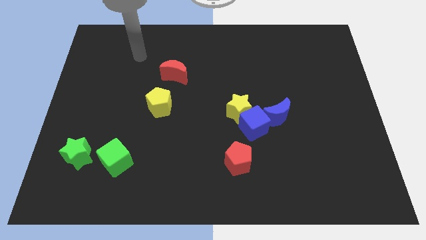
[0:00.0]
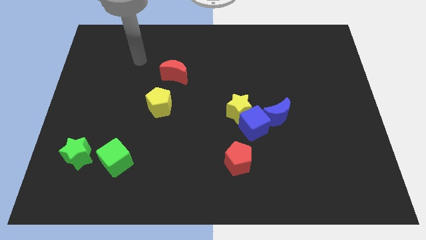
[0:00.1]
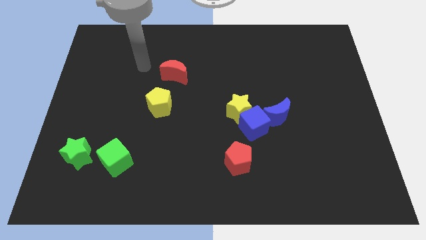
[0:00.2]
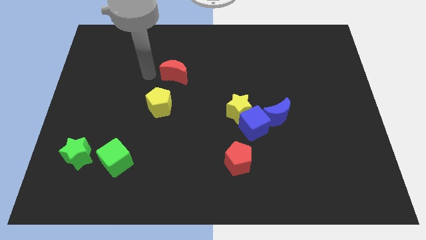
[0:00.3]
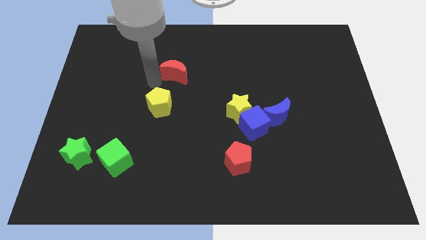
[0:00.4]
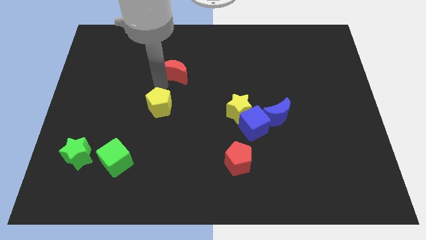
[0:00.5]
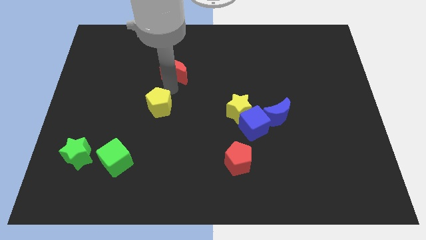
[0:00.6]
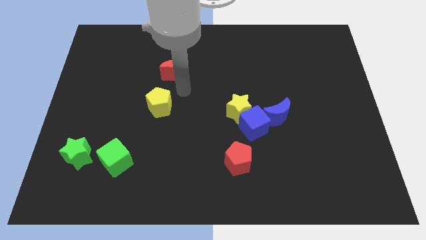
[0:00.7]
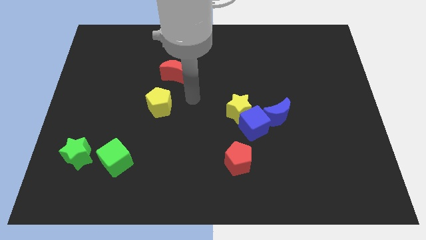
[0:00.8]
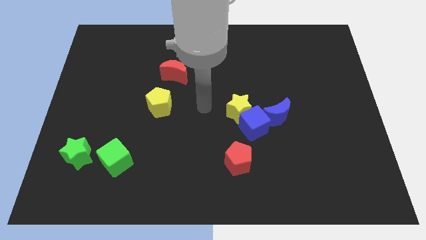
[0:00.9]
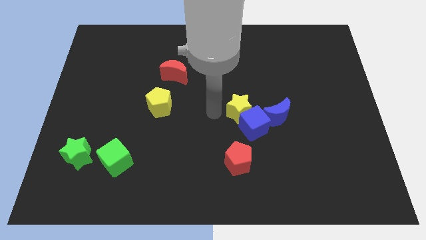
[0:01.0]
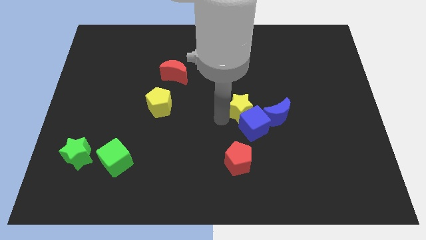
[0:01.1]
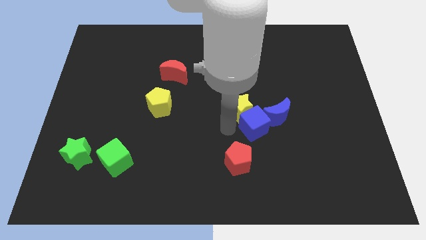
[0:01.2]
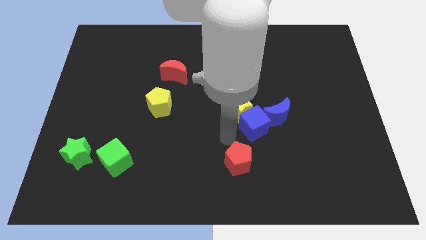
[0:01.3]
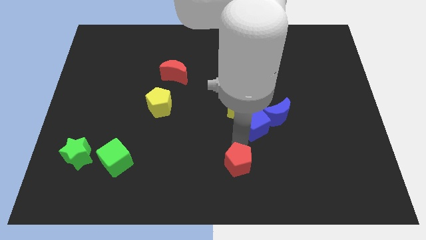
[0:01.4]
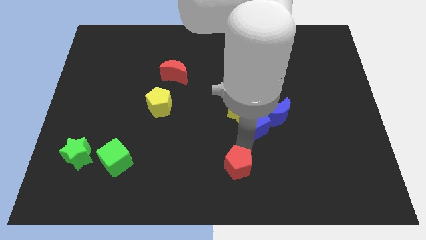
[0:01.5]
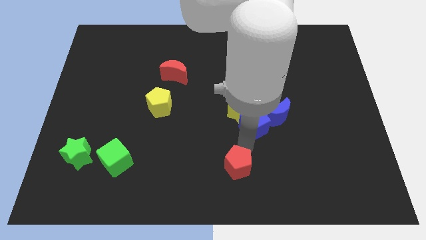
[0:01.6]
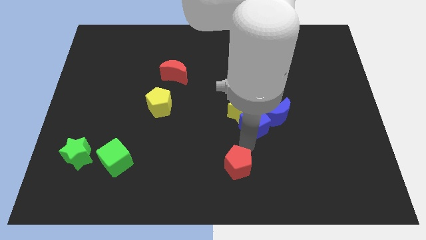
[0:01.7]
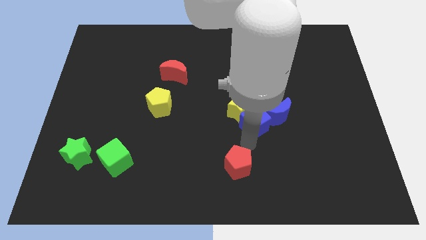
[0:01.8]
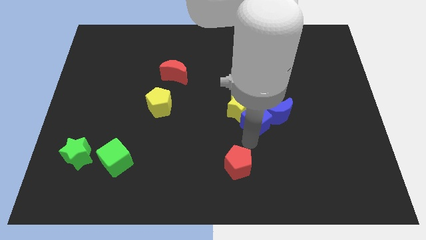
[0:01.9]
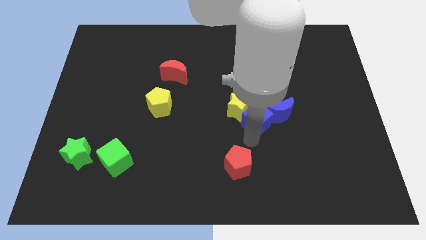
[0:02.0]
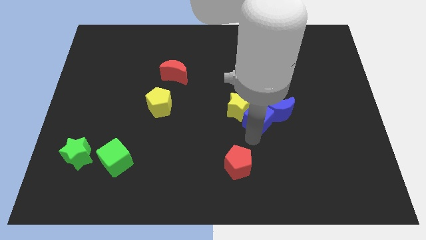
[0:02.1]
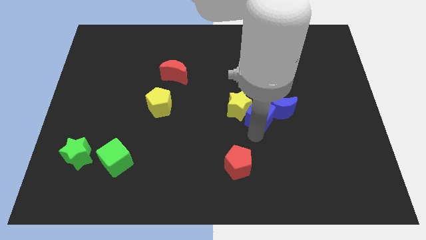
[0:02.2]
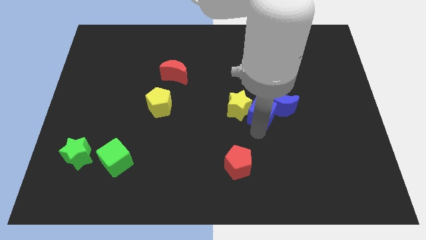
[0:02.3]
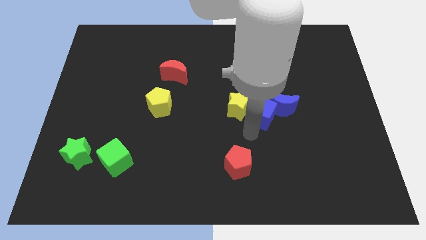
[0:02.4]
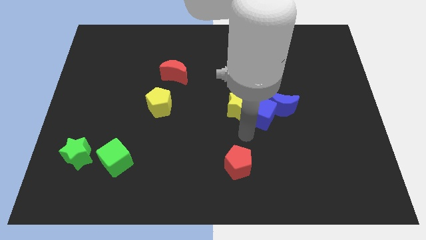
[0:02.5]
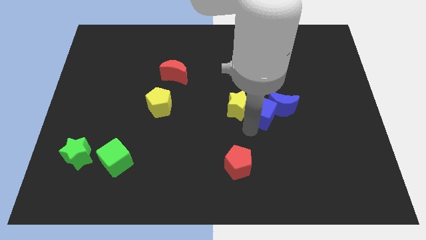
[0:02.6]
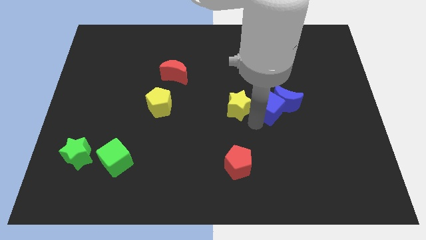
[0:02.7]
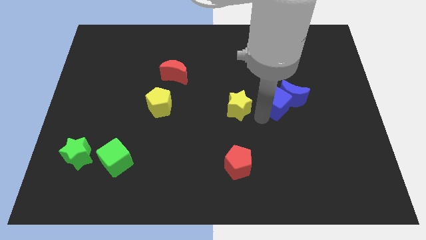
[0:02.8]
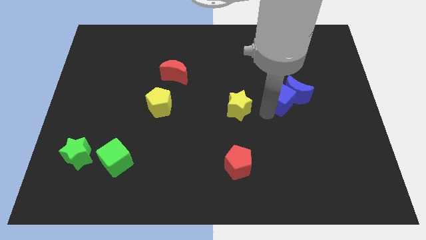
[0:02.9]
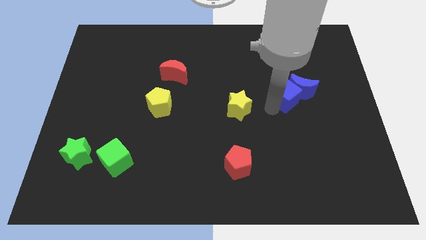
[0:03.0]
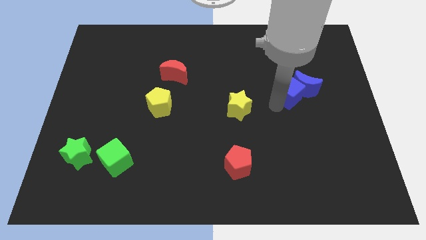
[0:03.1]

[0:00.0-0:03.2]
separate the blue cube from the yellow star, blue moon, and red pentagon

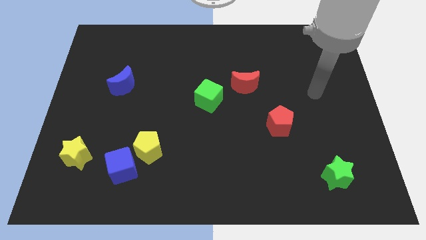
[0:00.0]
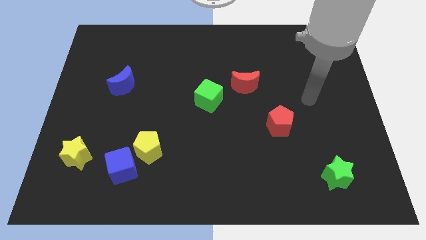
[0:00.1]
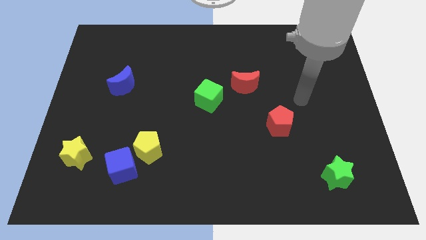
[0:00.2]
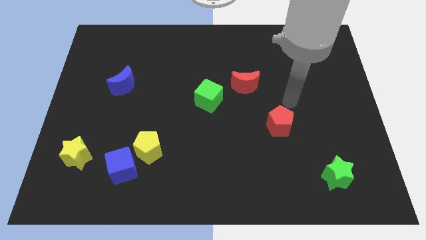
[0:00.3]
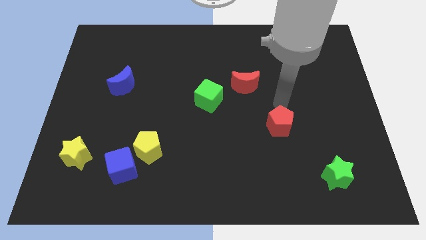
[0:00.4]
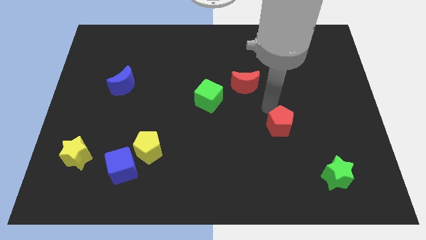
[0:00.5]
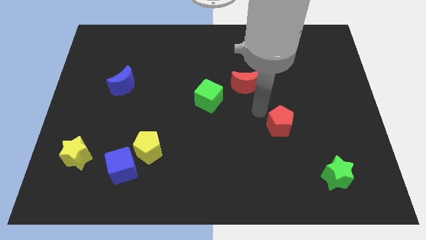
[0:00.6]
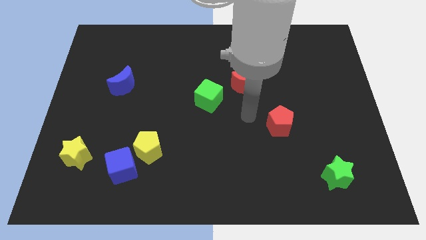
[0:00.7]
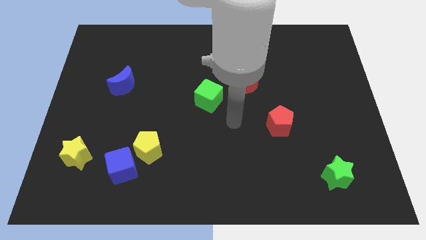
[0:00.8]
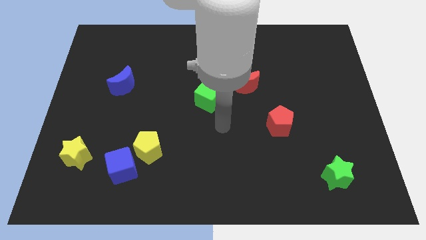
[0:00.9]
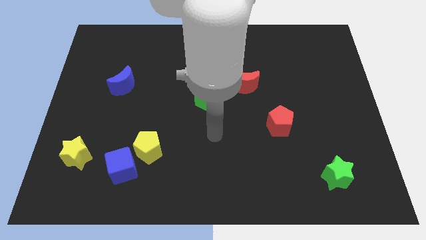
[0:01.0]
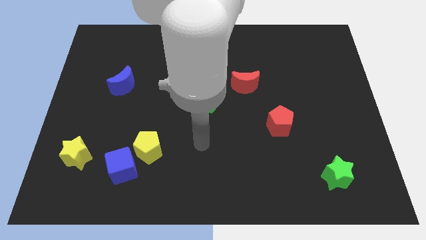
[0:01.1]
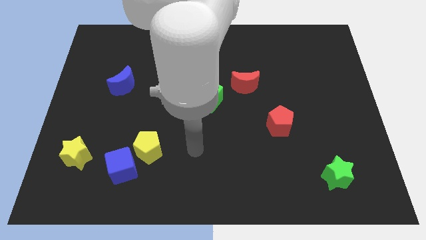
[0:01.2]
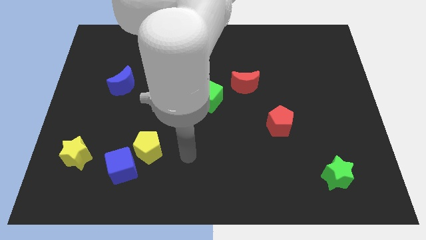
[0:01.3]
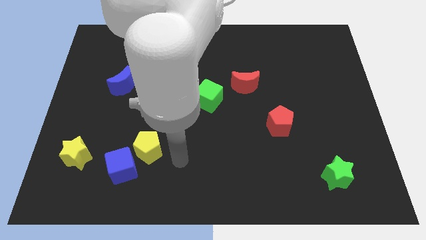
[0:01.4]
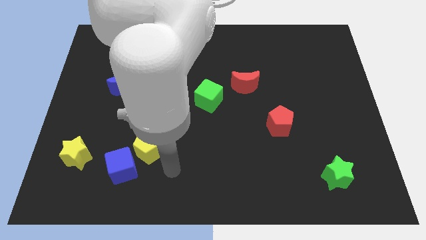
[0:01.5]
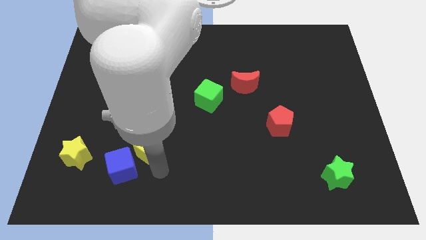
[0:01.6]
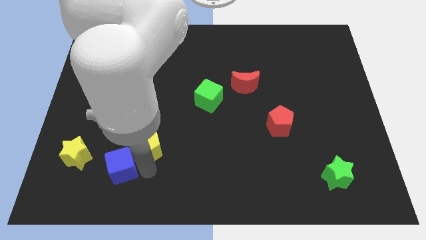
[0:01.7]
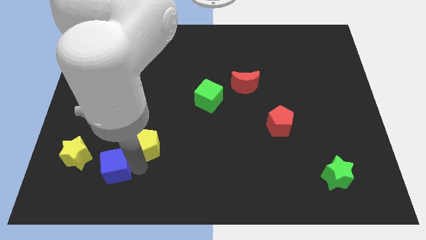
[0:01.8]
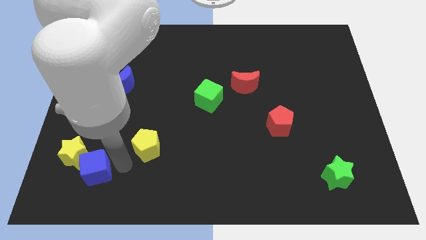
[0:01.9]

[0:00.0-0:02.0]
separate the yellow pentagon from the blue cube

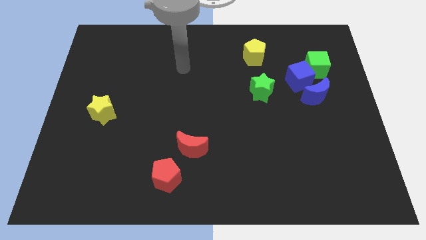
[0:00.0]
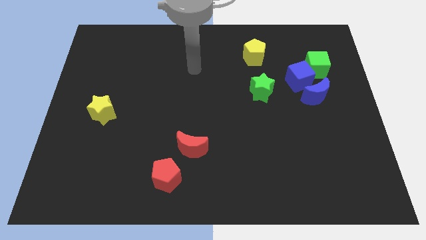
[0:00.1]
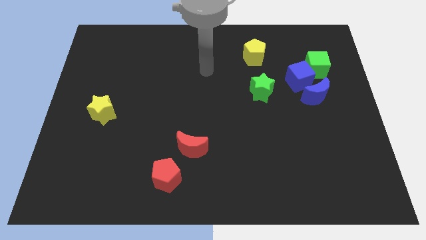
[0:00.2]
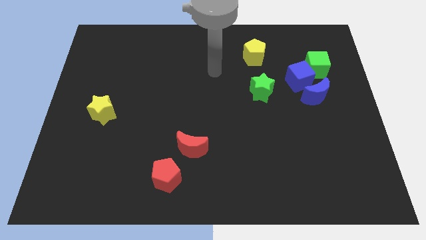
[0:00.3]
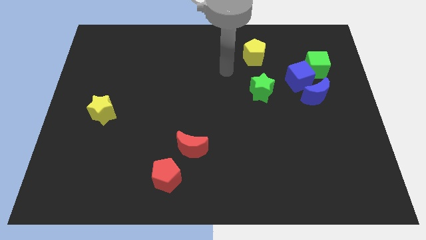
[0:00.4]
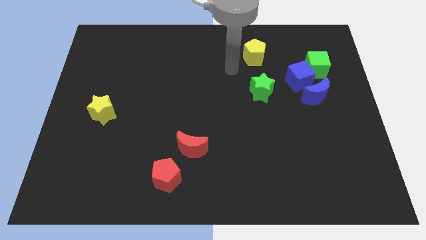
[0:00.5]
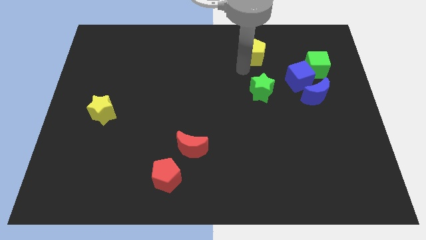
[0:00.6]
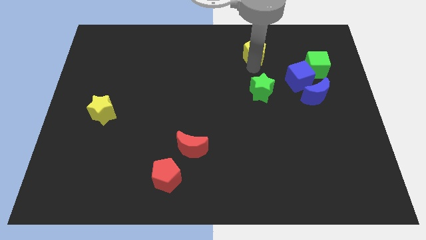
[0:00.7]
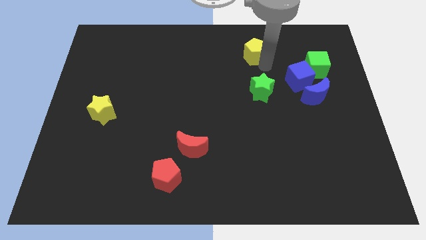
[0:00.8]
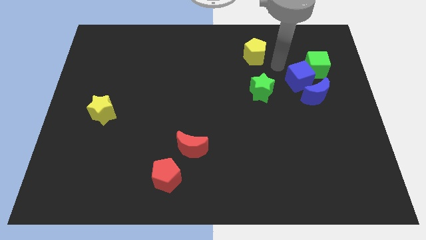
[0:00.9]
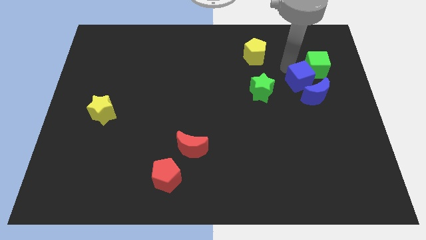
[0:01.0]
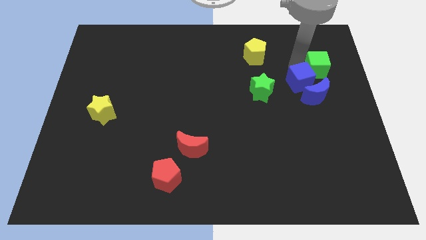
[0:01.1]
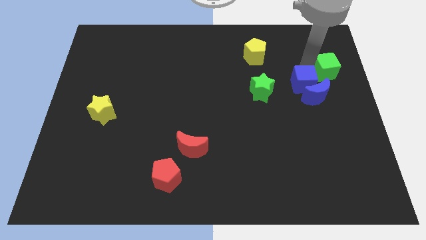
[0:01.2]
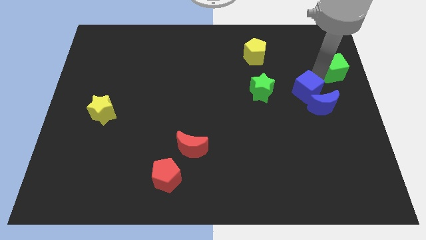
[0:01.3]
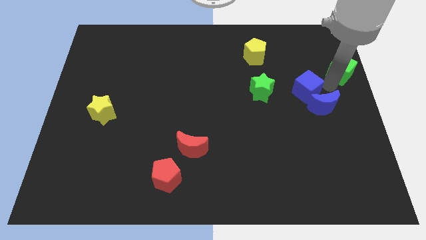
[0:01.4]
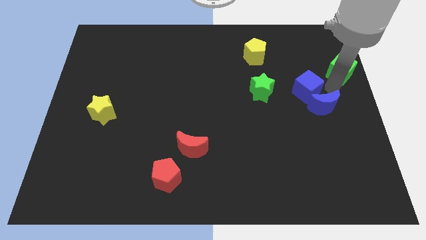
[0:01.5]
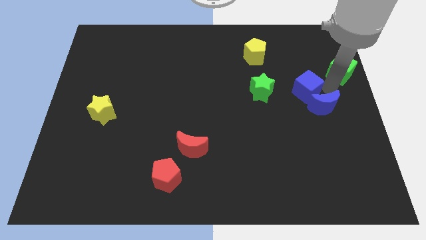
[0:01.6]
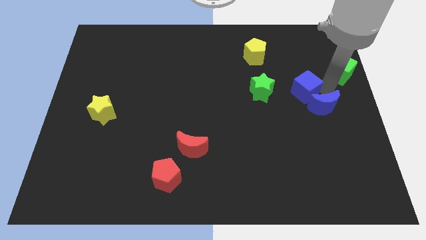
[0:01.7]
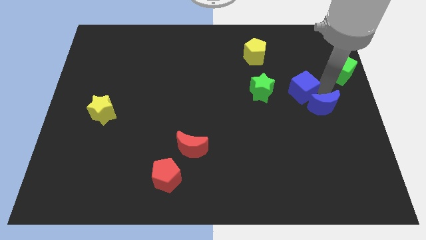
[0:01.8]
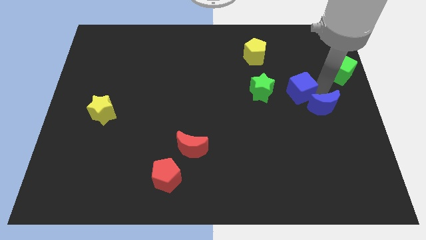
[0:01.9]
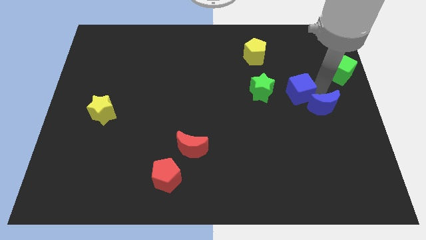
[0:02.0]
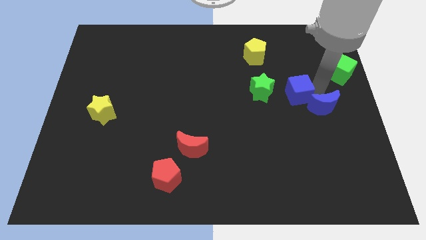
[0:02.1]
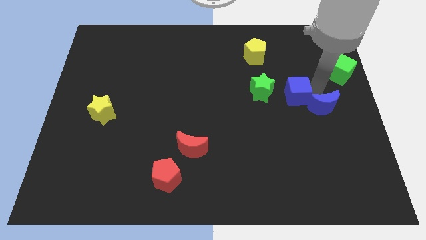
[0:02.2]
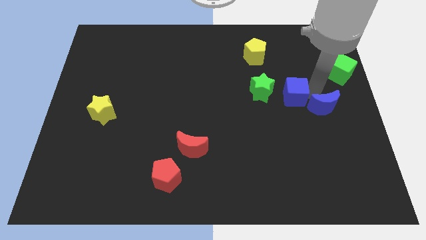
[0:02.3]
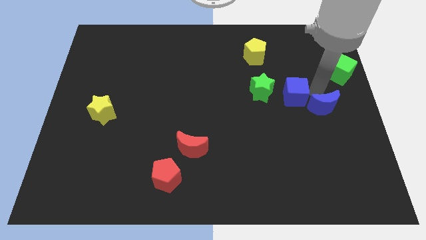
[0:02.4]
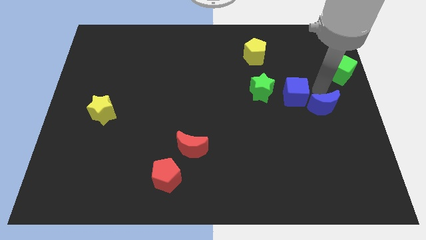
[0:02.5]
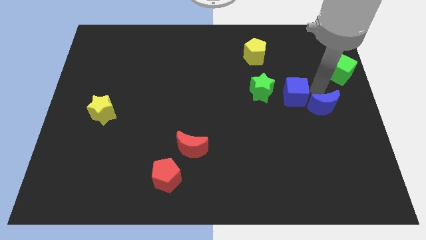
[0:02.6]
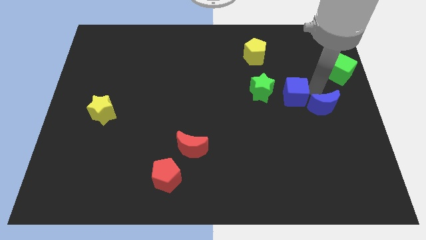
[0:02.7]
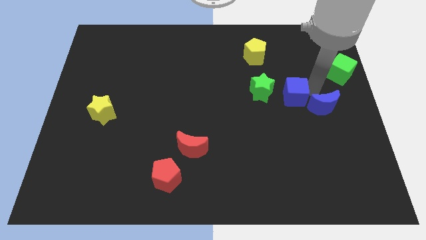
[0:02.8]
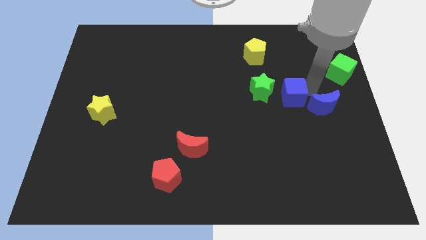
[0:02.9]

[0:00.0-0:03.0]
move the blue cube away from the green cube and blue moon

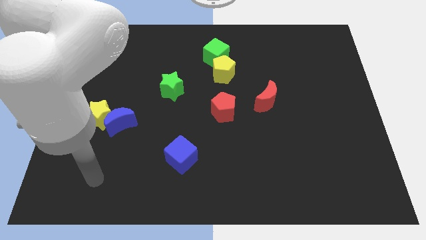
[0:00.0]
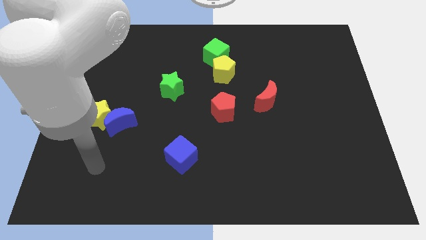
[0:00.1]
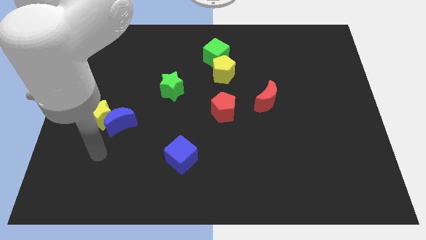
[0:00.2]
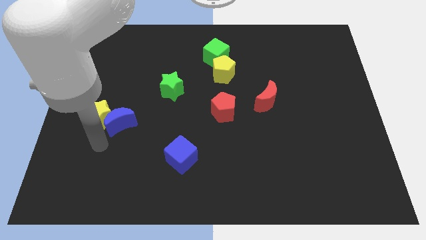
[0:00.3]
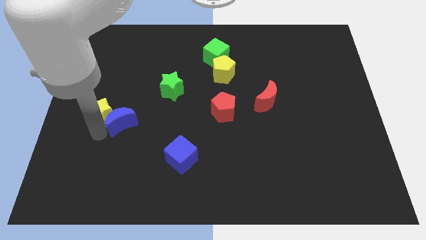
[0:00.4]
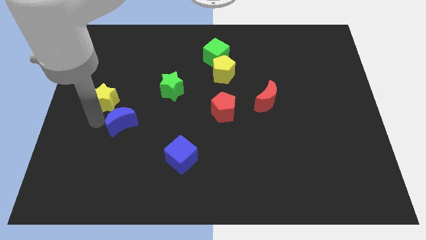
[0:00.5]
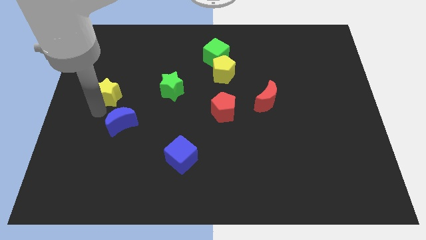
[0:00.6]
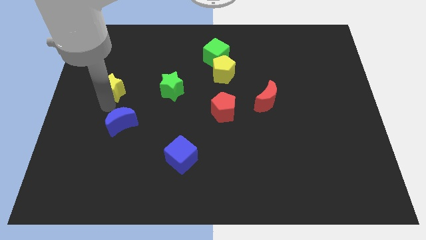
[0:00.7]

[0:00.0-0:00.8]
move the blue moon away from the yellow star

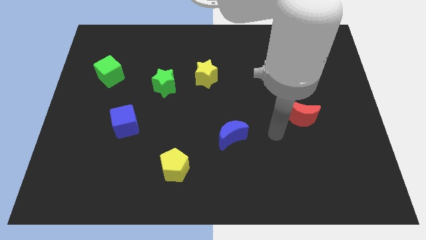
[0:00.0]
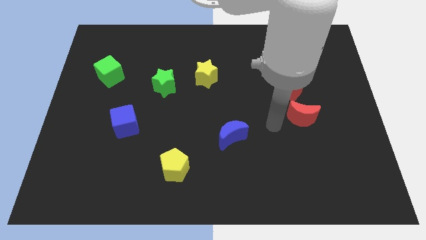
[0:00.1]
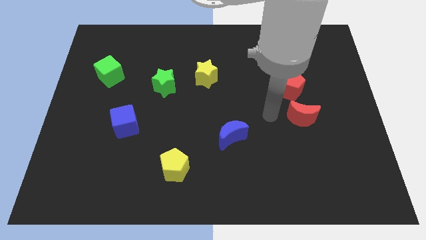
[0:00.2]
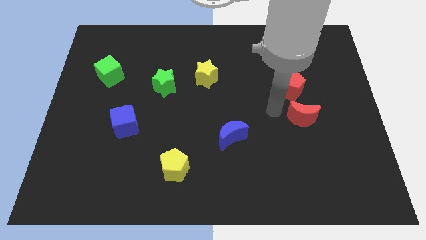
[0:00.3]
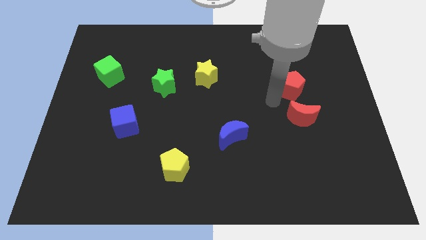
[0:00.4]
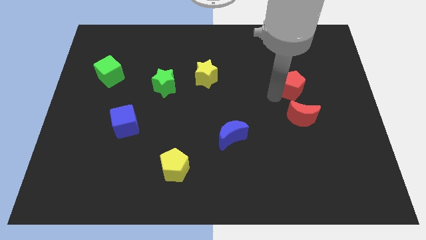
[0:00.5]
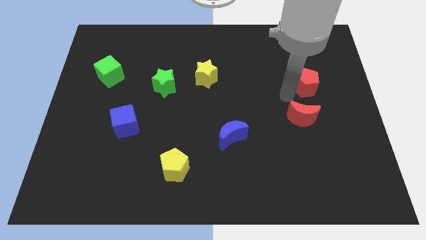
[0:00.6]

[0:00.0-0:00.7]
move the red moon away from the red pentagon
